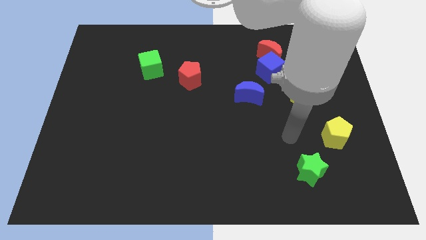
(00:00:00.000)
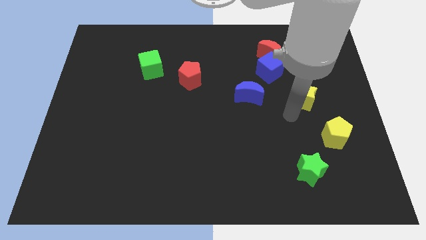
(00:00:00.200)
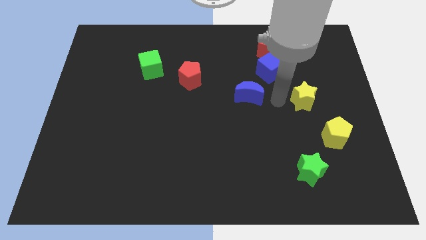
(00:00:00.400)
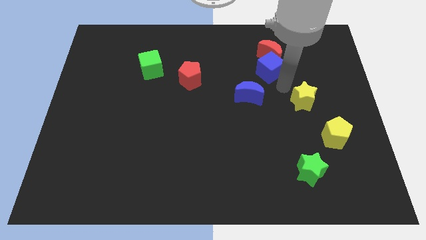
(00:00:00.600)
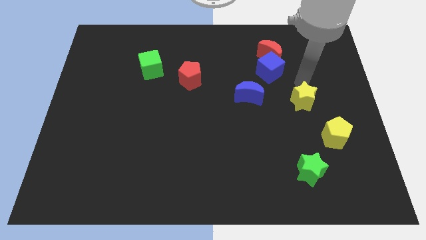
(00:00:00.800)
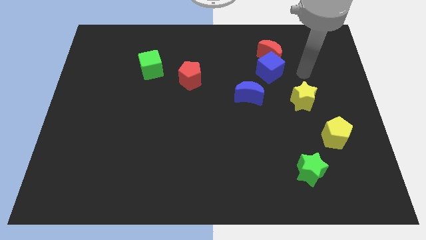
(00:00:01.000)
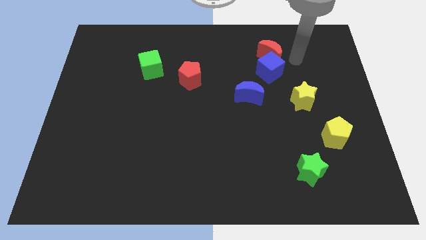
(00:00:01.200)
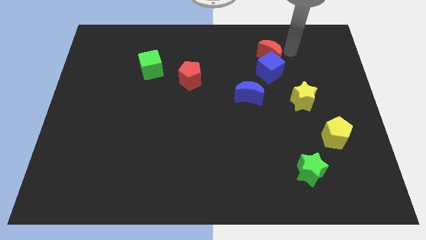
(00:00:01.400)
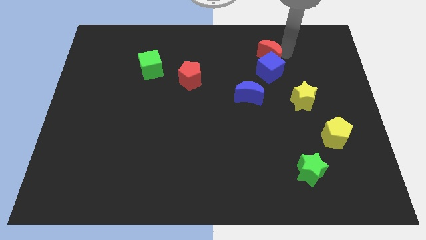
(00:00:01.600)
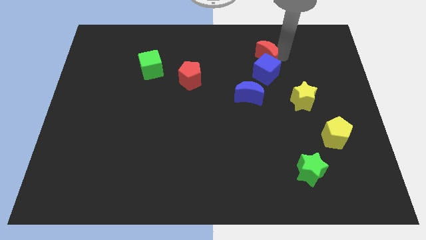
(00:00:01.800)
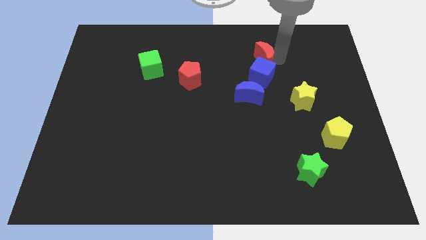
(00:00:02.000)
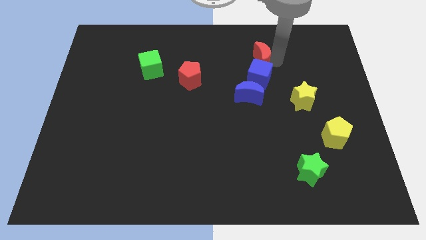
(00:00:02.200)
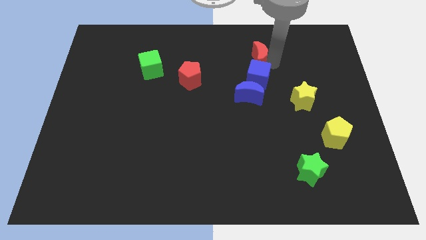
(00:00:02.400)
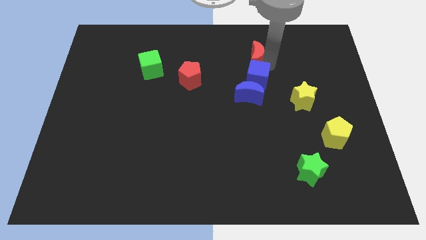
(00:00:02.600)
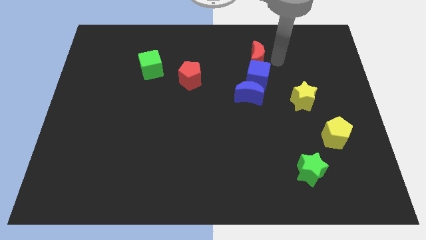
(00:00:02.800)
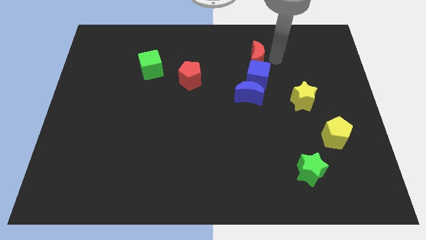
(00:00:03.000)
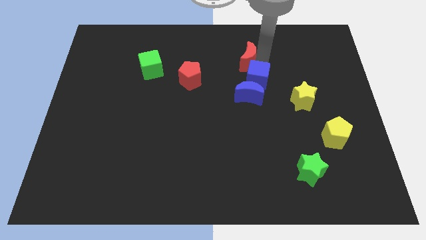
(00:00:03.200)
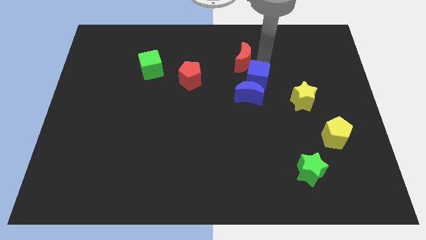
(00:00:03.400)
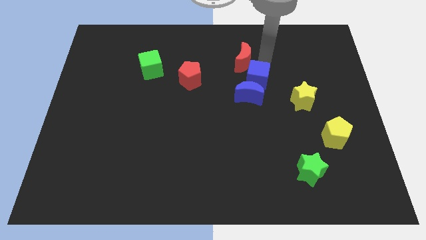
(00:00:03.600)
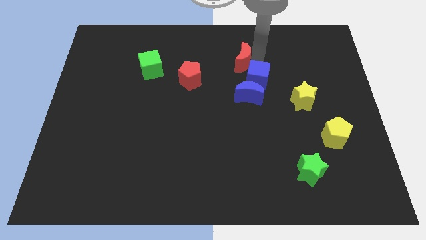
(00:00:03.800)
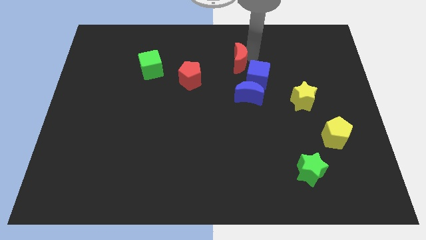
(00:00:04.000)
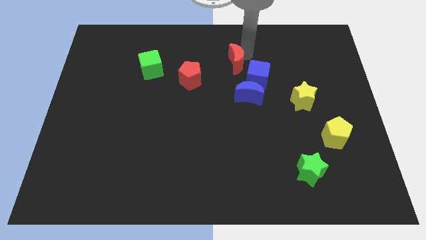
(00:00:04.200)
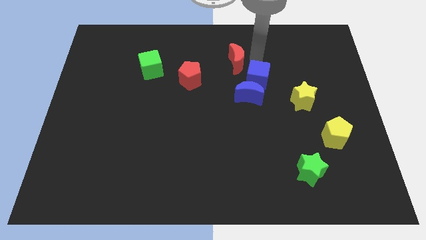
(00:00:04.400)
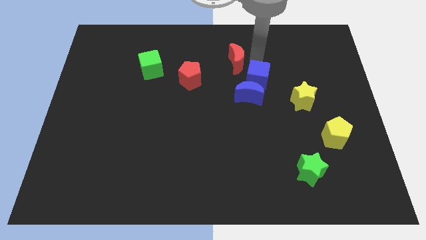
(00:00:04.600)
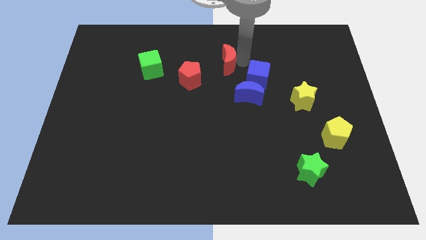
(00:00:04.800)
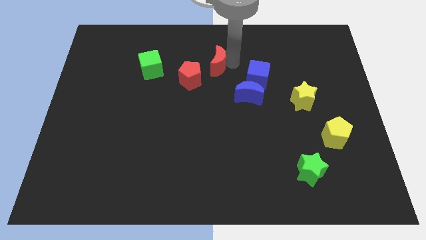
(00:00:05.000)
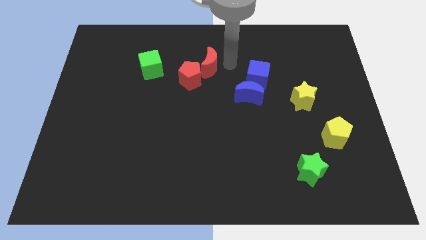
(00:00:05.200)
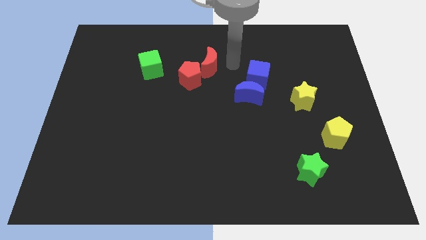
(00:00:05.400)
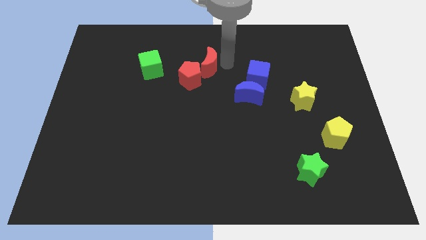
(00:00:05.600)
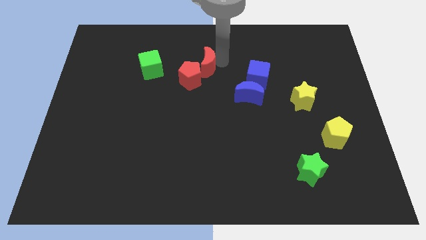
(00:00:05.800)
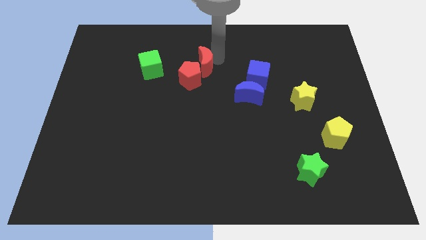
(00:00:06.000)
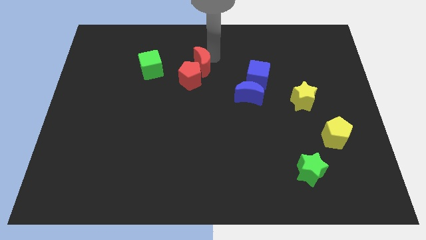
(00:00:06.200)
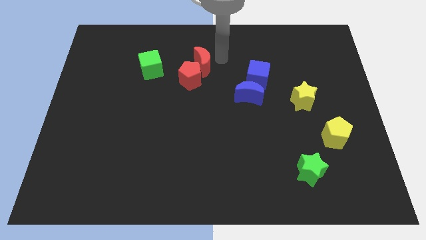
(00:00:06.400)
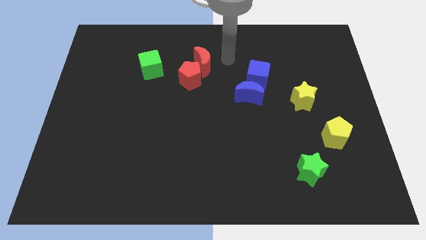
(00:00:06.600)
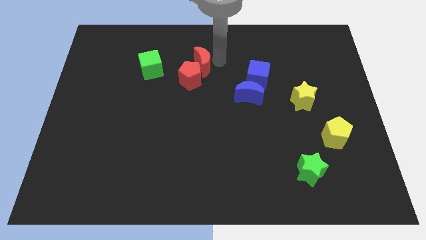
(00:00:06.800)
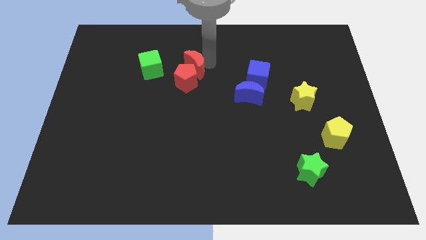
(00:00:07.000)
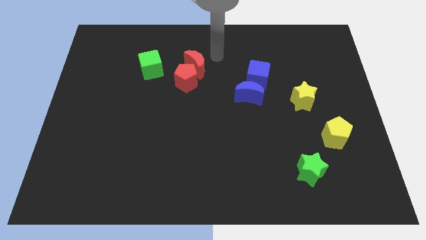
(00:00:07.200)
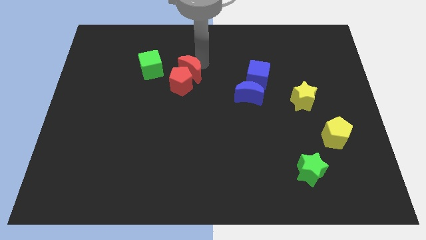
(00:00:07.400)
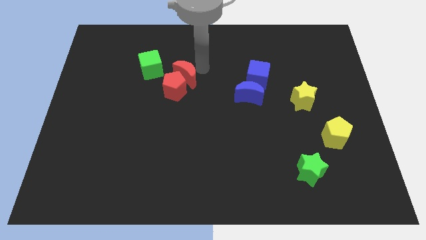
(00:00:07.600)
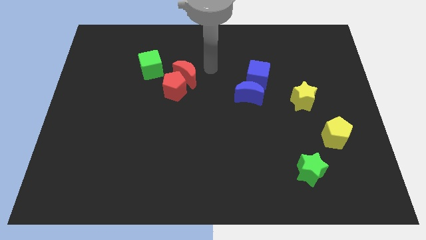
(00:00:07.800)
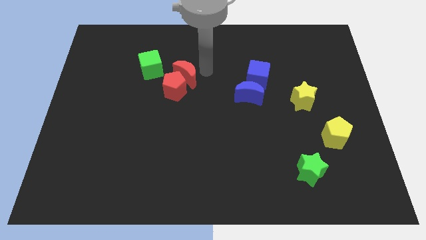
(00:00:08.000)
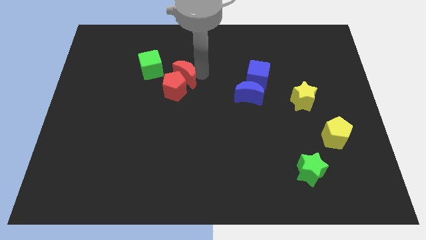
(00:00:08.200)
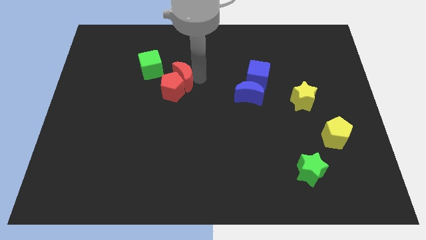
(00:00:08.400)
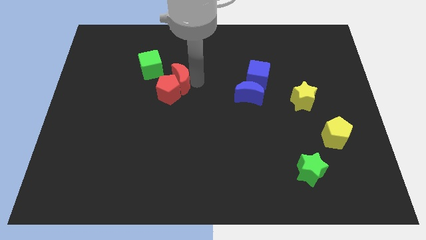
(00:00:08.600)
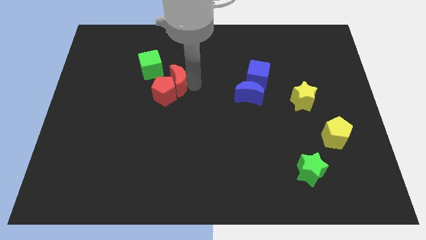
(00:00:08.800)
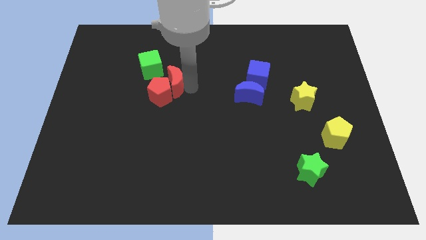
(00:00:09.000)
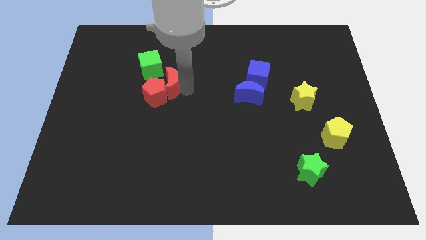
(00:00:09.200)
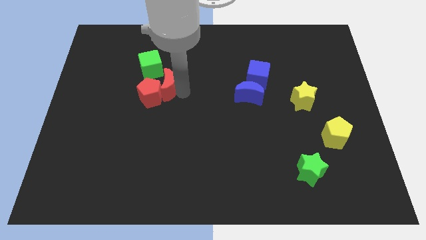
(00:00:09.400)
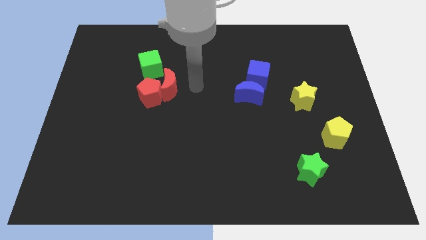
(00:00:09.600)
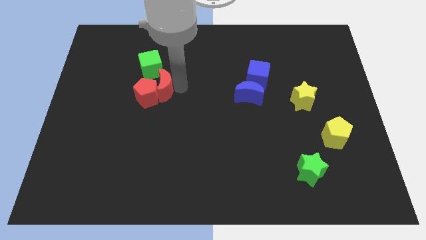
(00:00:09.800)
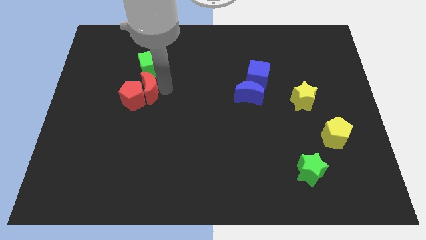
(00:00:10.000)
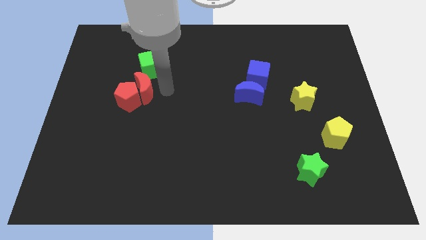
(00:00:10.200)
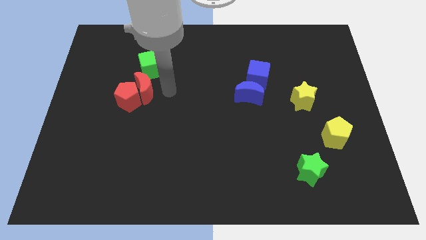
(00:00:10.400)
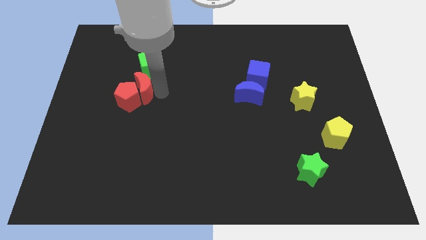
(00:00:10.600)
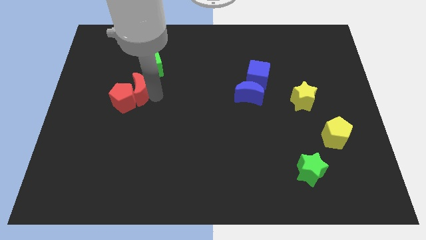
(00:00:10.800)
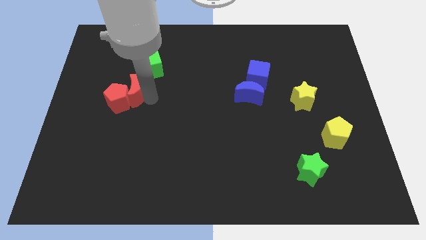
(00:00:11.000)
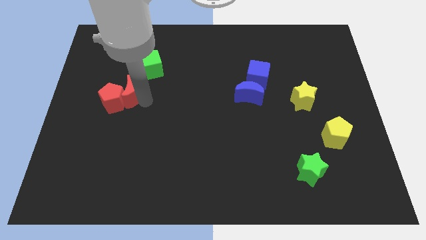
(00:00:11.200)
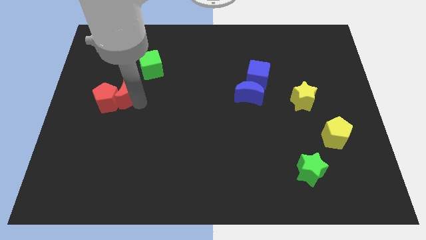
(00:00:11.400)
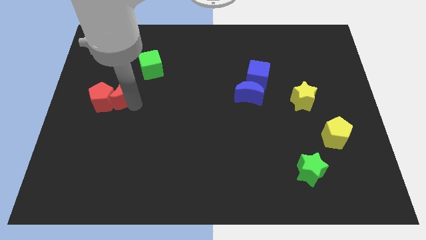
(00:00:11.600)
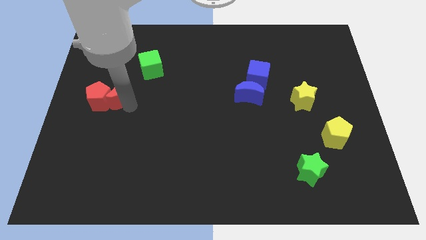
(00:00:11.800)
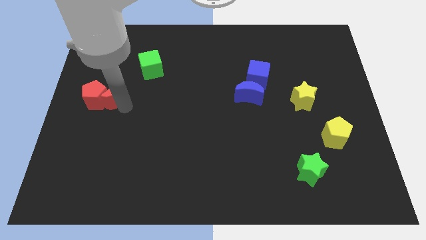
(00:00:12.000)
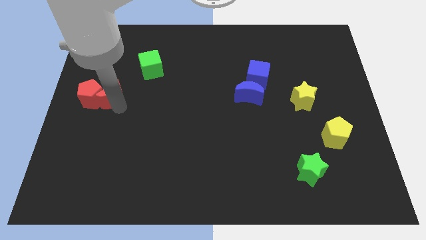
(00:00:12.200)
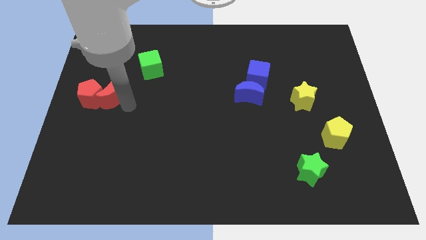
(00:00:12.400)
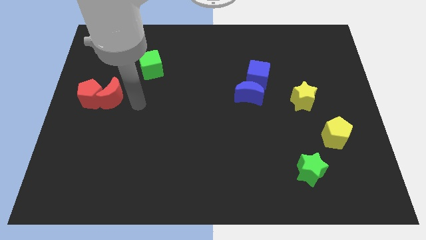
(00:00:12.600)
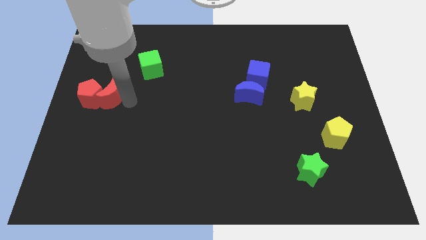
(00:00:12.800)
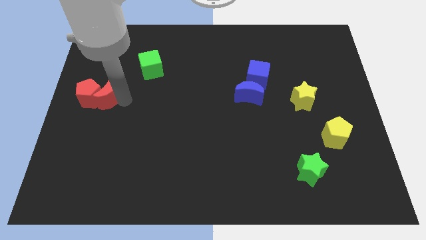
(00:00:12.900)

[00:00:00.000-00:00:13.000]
push the red moon to the left side

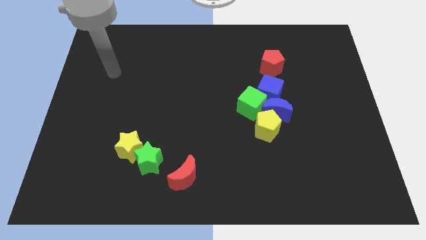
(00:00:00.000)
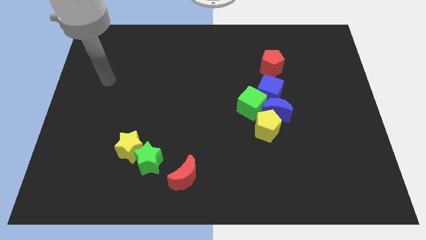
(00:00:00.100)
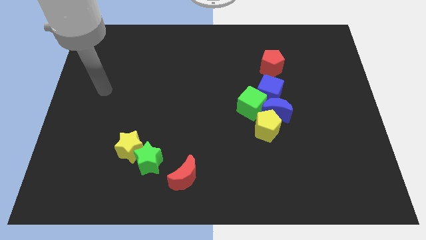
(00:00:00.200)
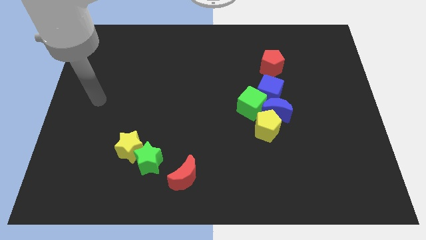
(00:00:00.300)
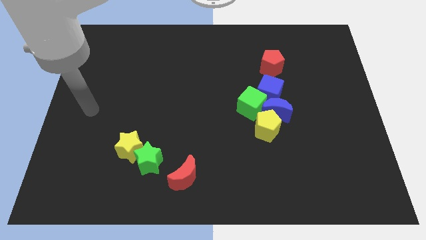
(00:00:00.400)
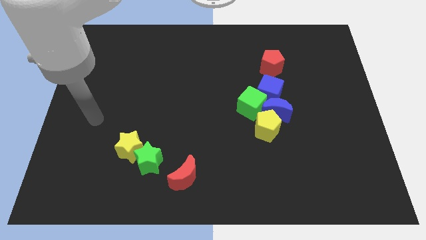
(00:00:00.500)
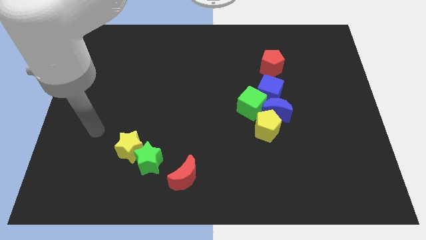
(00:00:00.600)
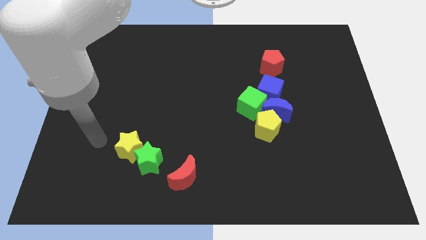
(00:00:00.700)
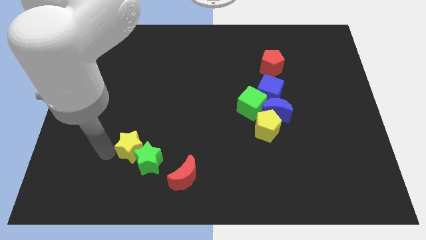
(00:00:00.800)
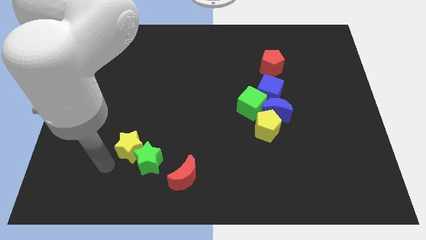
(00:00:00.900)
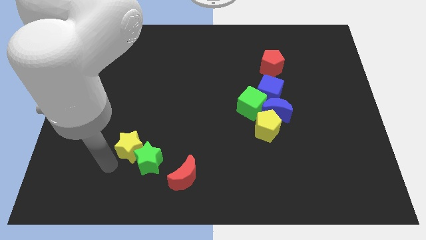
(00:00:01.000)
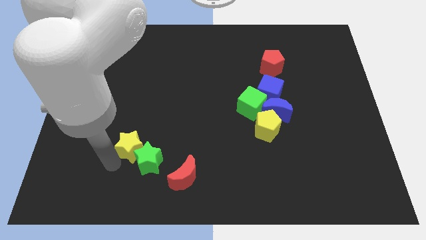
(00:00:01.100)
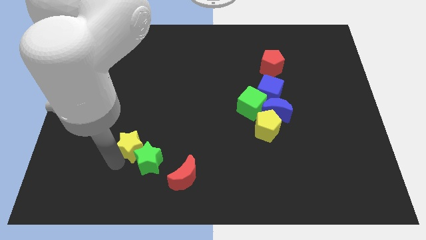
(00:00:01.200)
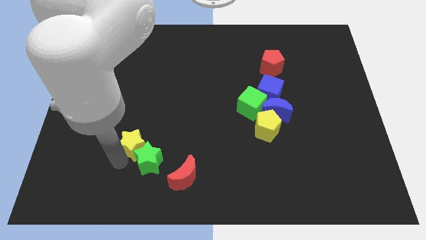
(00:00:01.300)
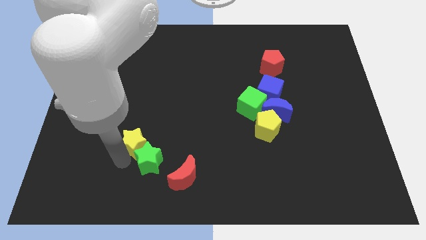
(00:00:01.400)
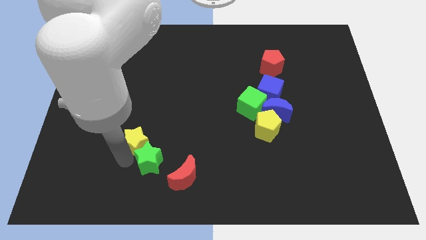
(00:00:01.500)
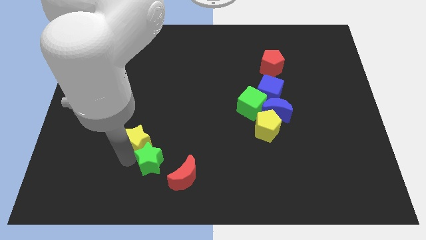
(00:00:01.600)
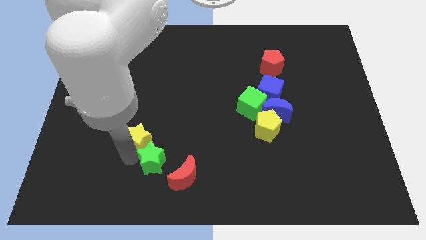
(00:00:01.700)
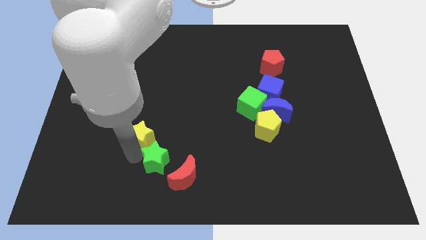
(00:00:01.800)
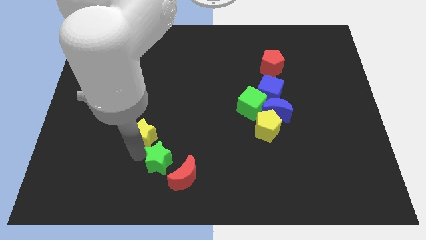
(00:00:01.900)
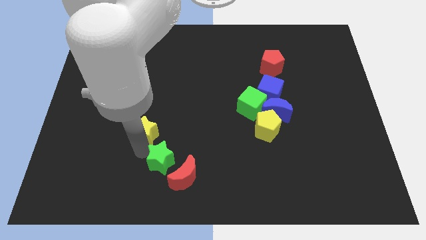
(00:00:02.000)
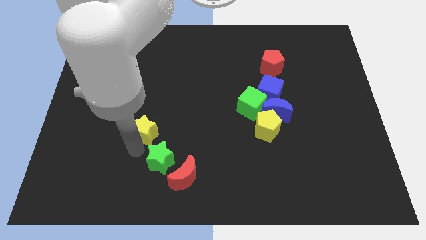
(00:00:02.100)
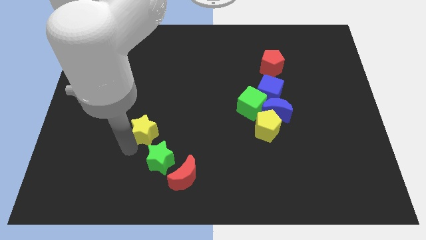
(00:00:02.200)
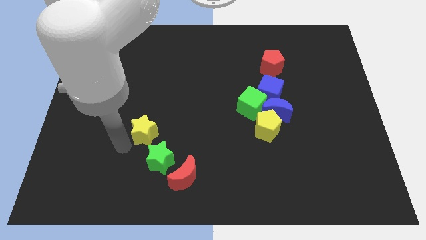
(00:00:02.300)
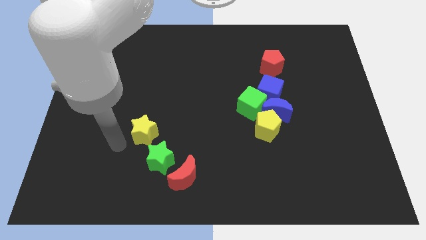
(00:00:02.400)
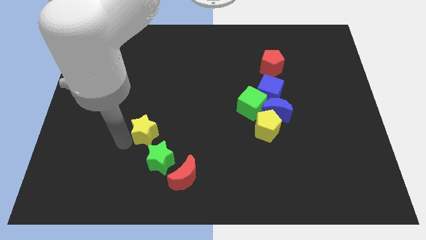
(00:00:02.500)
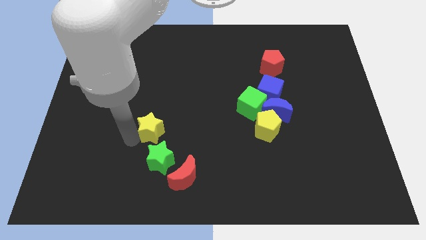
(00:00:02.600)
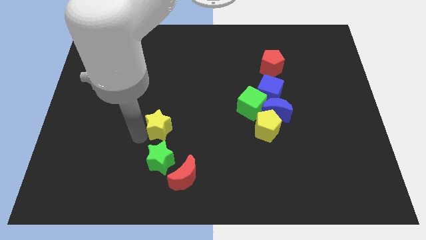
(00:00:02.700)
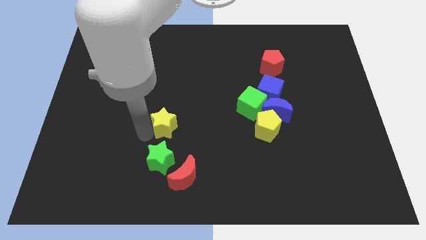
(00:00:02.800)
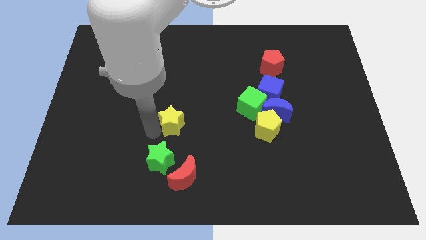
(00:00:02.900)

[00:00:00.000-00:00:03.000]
slide the yellow star to the center
